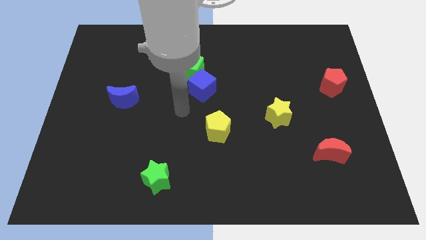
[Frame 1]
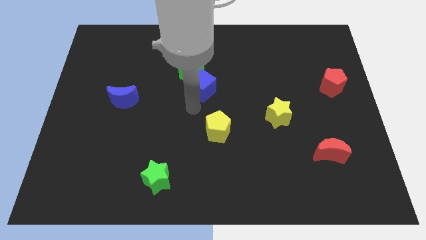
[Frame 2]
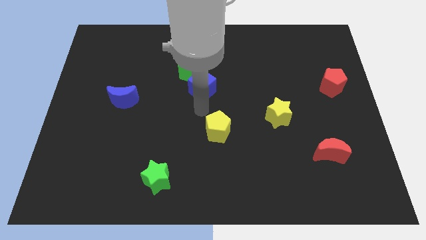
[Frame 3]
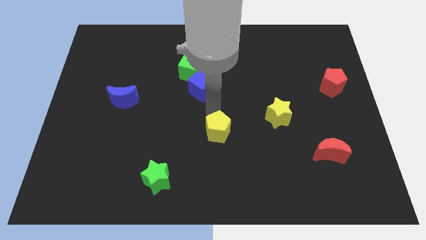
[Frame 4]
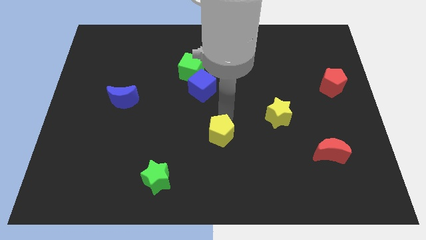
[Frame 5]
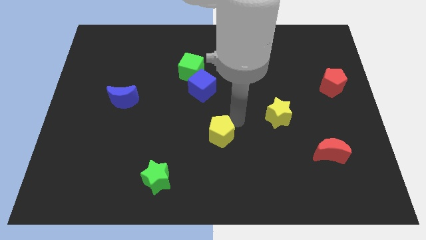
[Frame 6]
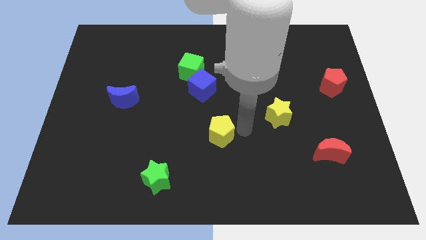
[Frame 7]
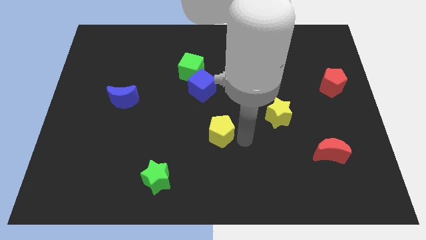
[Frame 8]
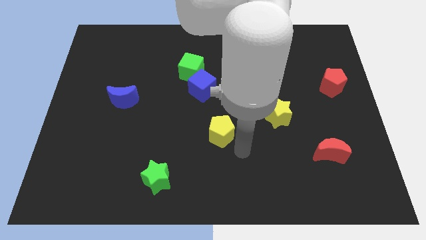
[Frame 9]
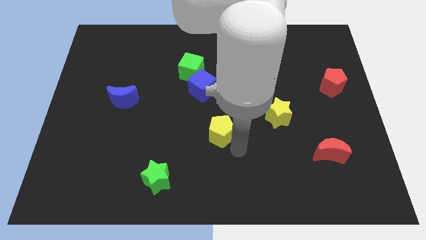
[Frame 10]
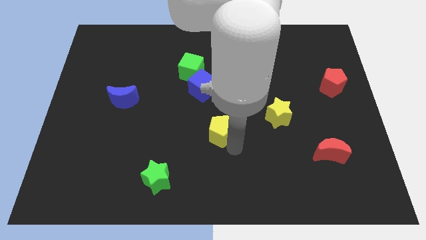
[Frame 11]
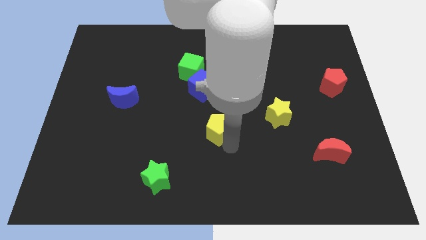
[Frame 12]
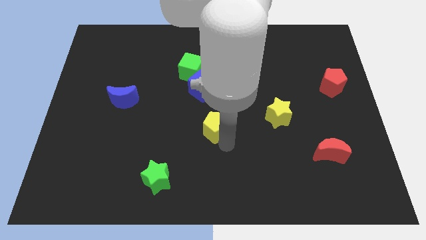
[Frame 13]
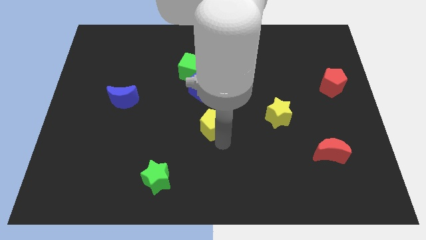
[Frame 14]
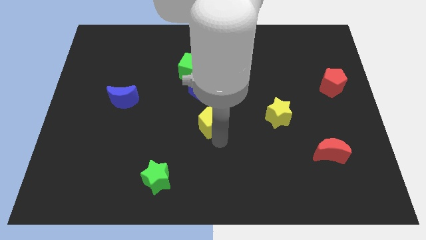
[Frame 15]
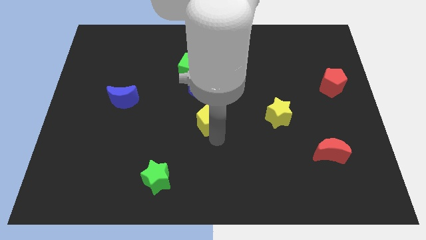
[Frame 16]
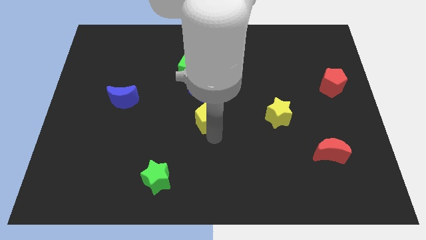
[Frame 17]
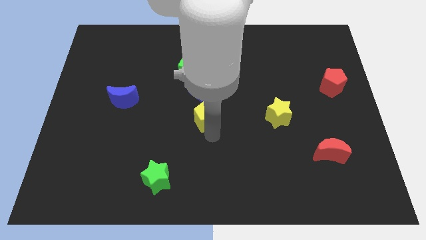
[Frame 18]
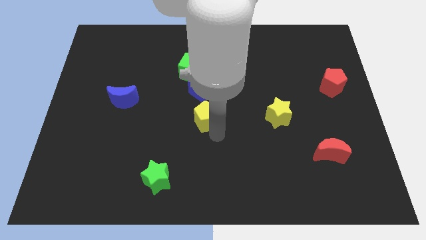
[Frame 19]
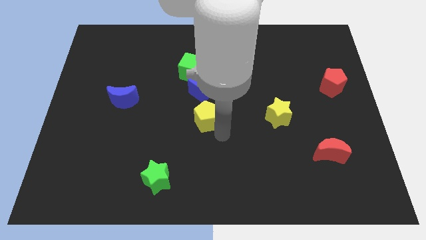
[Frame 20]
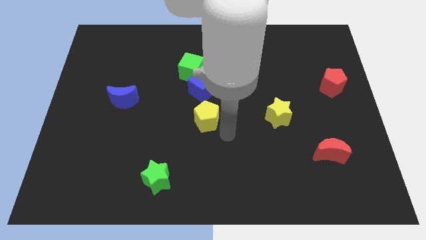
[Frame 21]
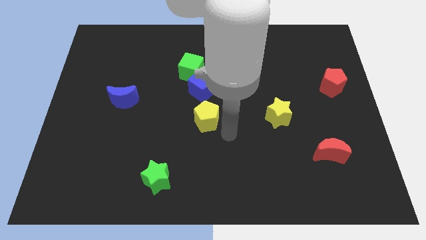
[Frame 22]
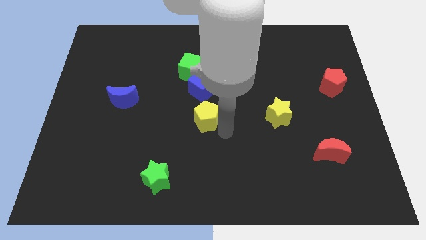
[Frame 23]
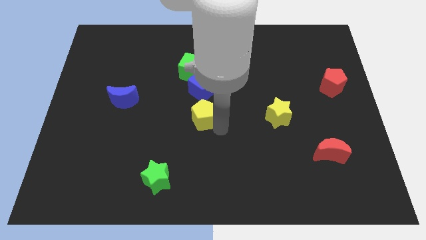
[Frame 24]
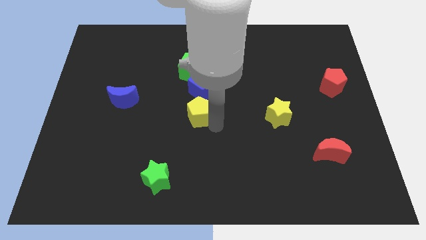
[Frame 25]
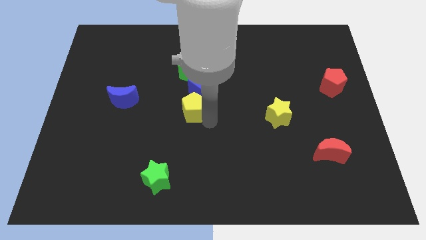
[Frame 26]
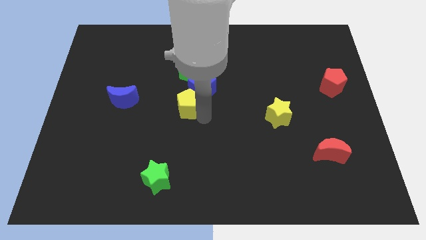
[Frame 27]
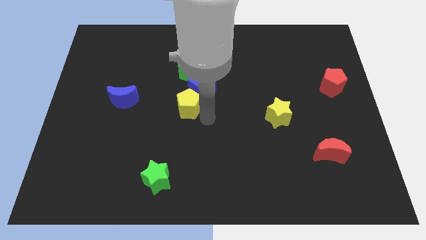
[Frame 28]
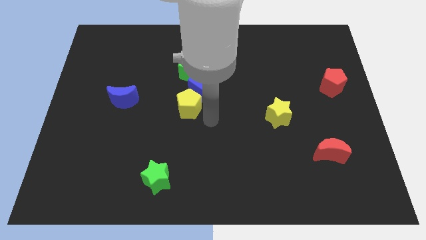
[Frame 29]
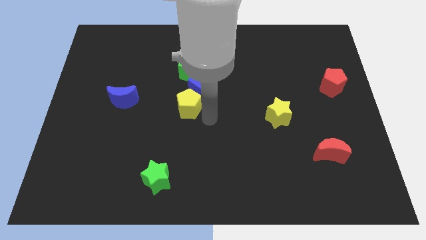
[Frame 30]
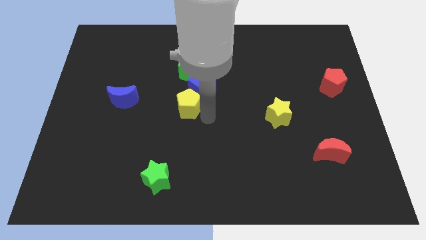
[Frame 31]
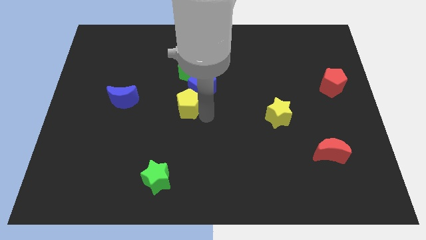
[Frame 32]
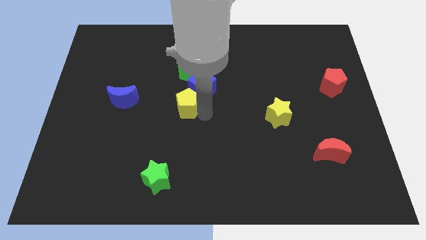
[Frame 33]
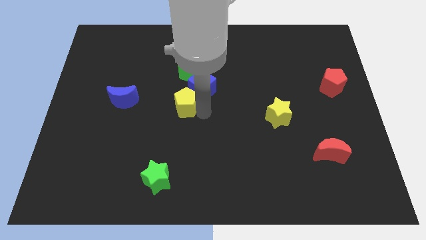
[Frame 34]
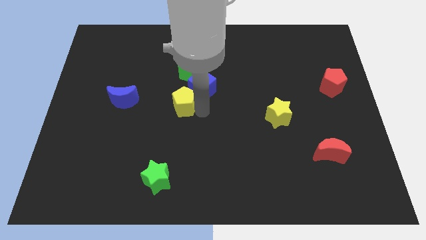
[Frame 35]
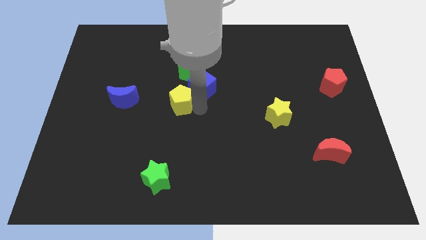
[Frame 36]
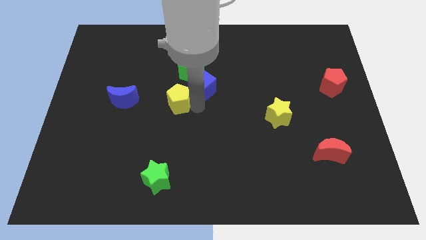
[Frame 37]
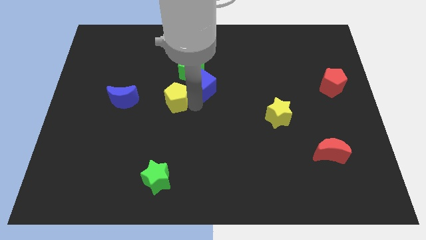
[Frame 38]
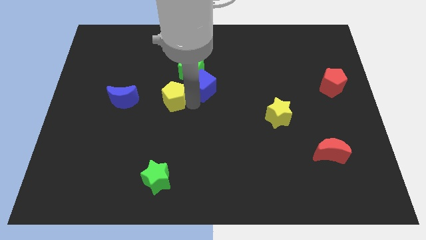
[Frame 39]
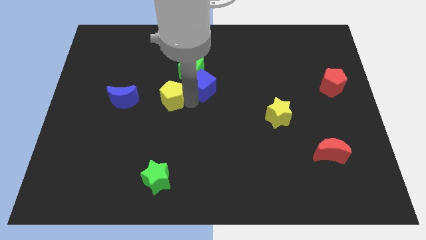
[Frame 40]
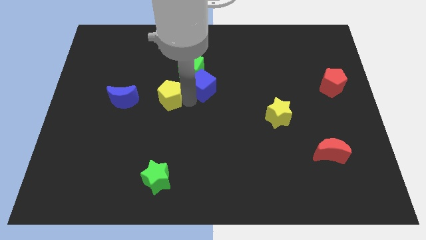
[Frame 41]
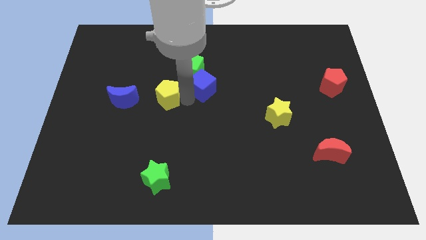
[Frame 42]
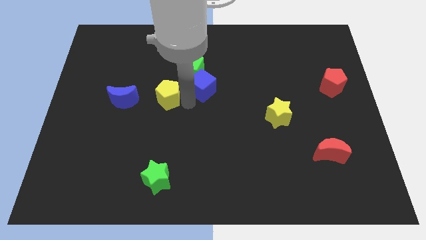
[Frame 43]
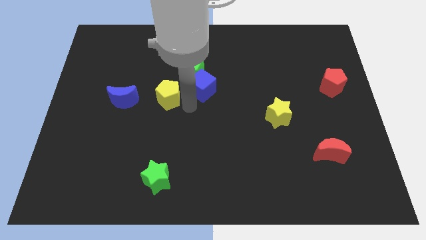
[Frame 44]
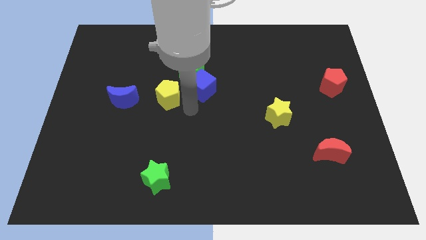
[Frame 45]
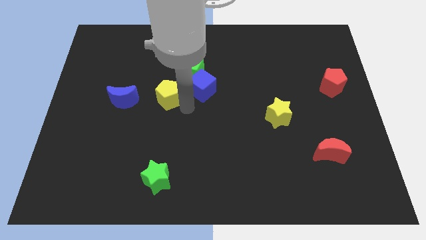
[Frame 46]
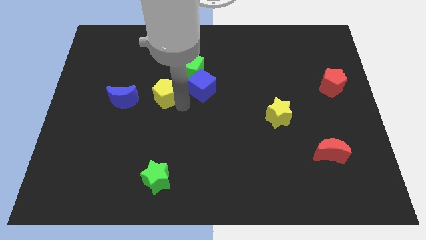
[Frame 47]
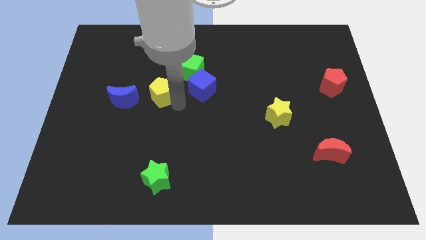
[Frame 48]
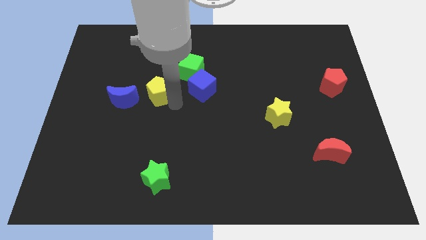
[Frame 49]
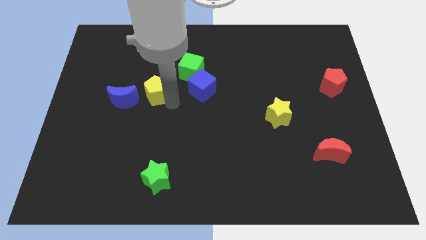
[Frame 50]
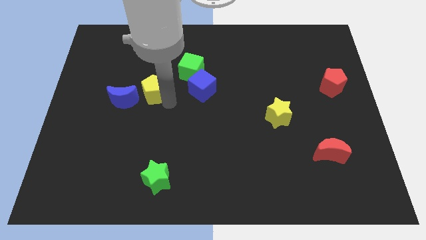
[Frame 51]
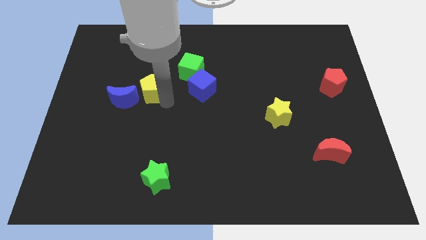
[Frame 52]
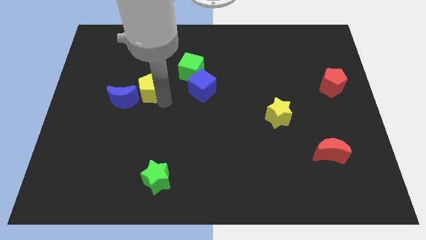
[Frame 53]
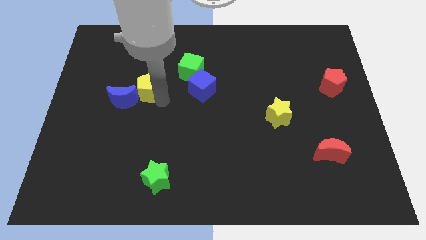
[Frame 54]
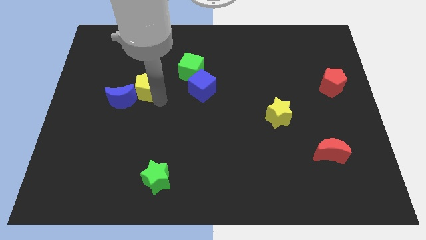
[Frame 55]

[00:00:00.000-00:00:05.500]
push the yellow pentagon up and then to the left

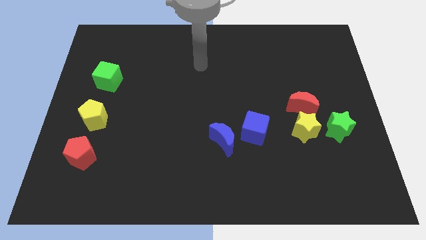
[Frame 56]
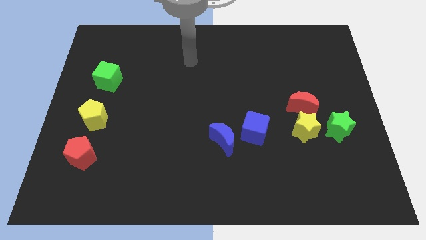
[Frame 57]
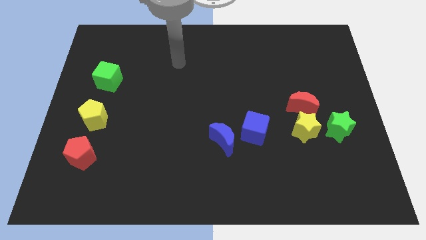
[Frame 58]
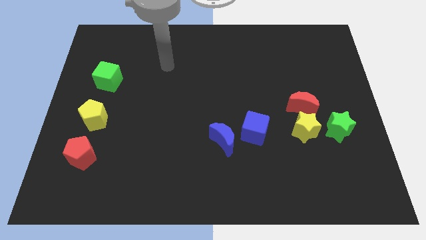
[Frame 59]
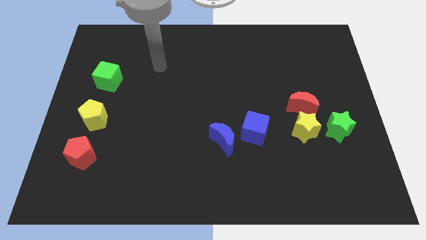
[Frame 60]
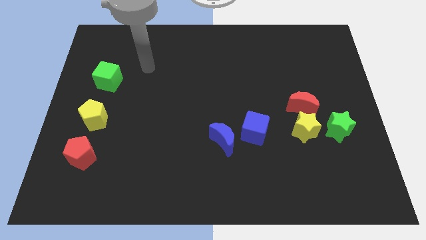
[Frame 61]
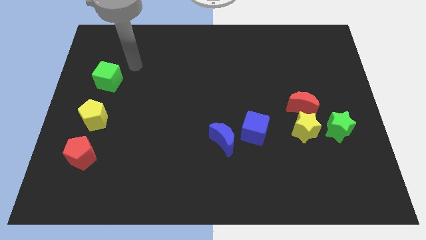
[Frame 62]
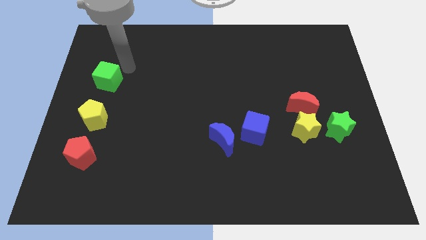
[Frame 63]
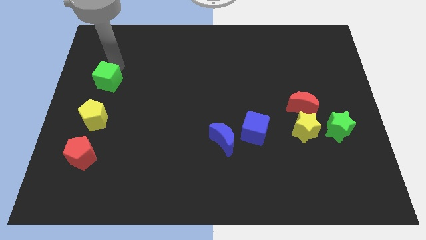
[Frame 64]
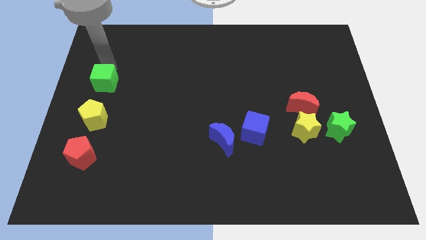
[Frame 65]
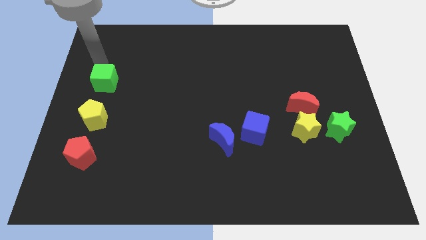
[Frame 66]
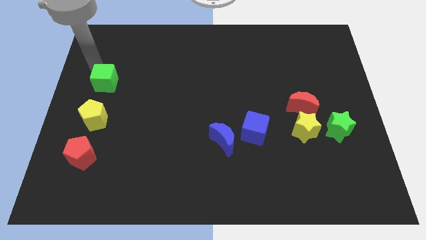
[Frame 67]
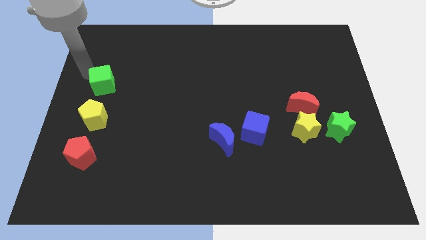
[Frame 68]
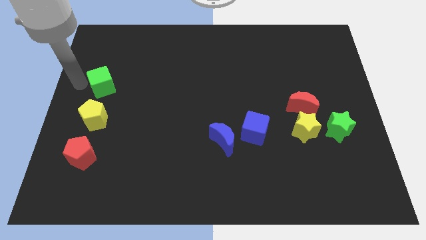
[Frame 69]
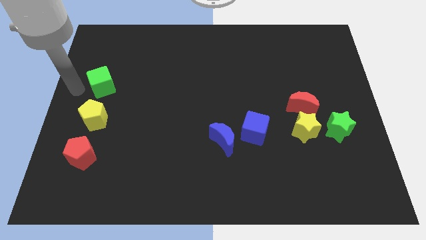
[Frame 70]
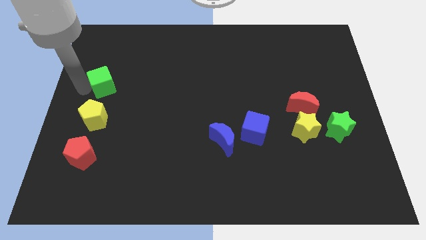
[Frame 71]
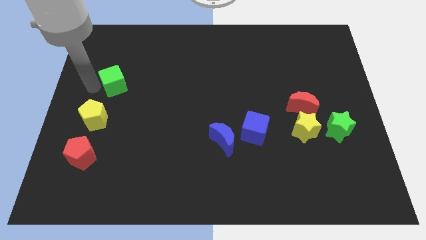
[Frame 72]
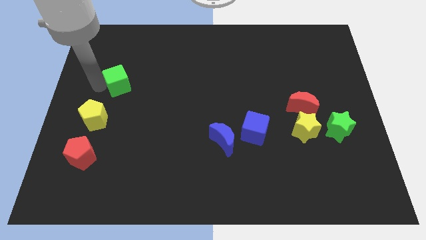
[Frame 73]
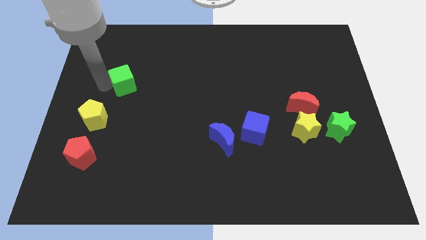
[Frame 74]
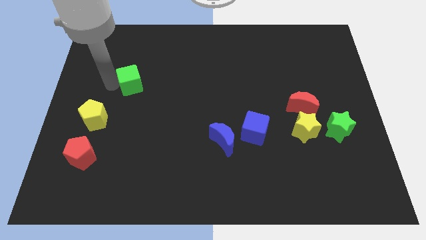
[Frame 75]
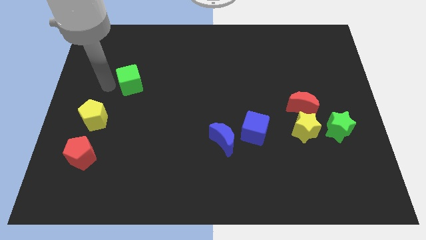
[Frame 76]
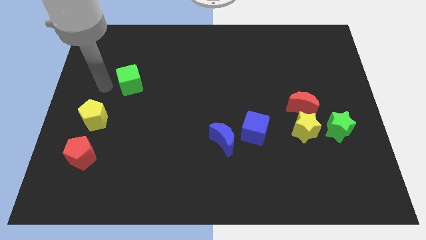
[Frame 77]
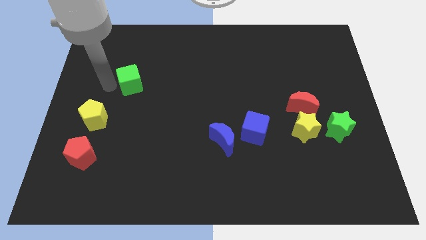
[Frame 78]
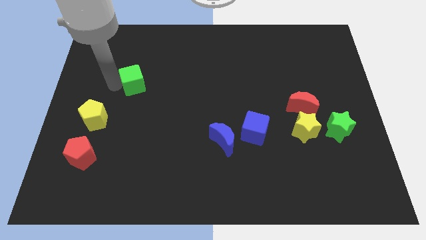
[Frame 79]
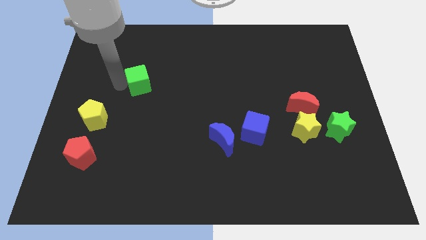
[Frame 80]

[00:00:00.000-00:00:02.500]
move the green cube a bit right
